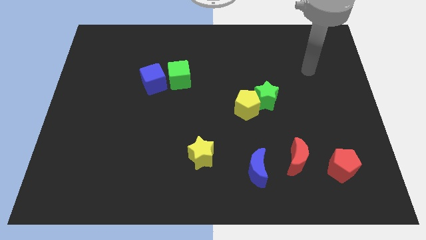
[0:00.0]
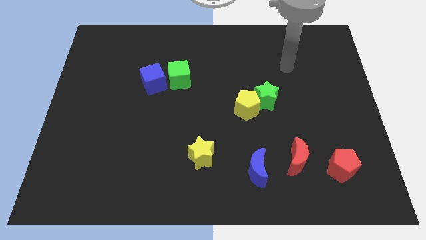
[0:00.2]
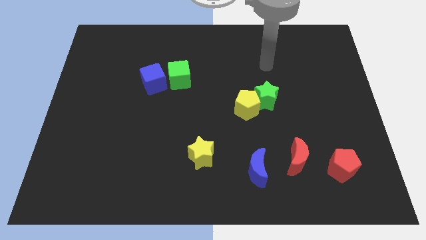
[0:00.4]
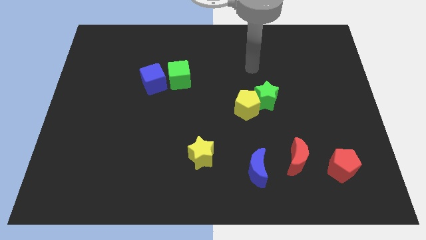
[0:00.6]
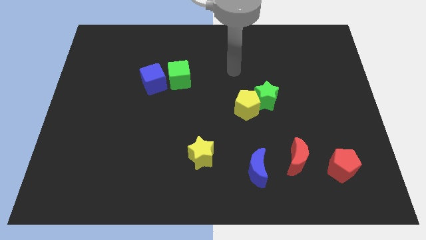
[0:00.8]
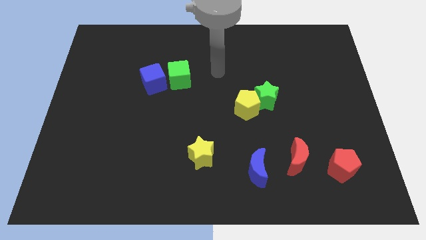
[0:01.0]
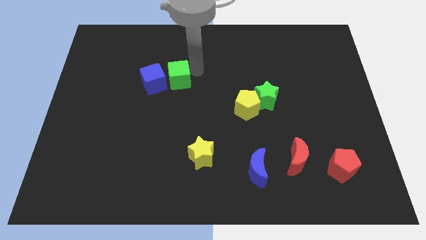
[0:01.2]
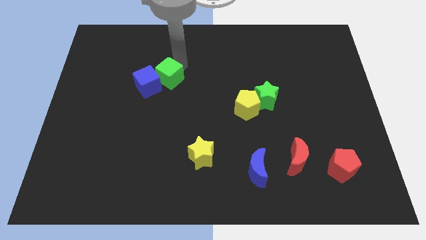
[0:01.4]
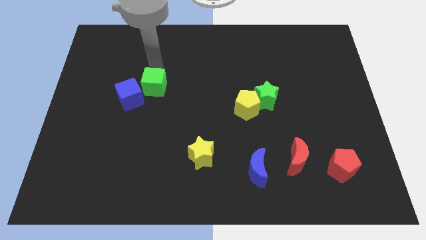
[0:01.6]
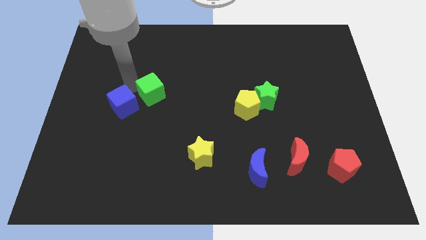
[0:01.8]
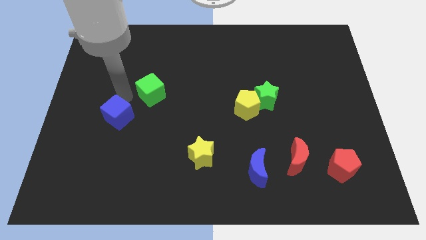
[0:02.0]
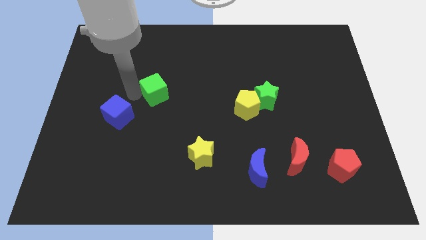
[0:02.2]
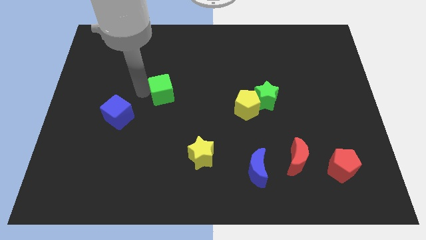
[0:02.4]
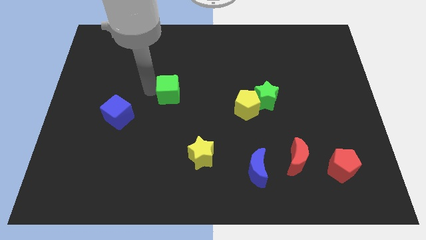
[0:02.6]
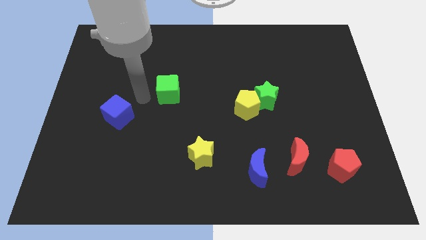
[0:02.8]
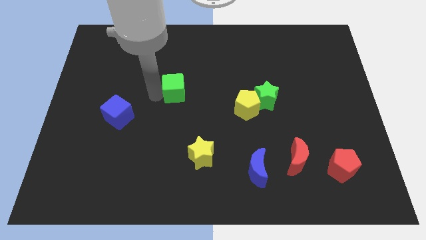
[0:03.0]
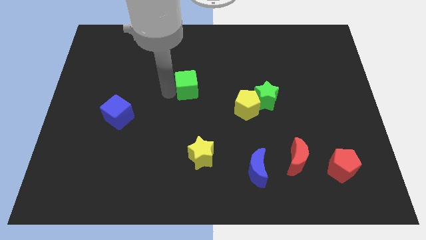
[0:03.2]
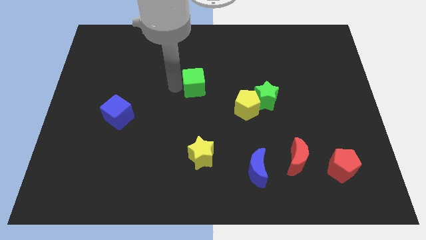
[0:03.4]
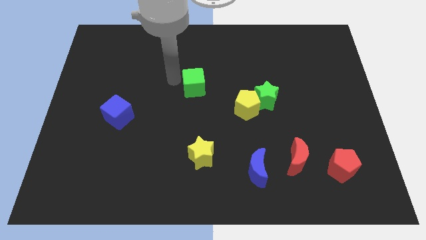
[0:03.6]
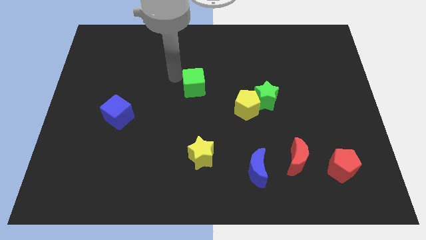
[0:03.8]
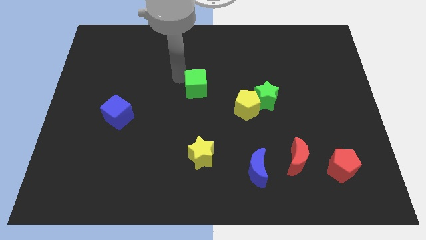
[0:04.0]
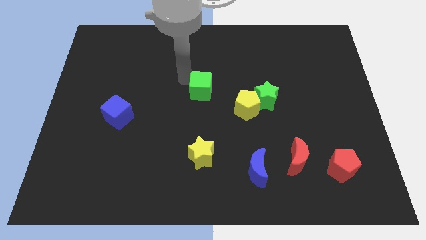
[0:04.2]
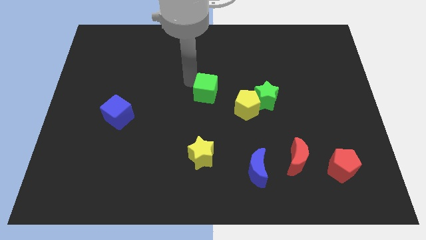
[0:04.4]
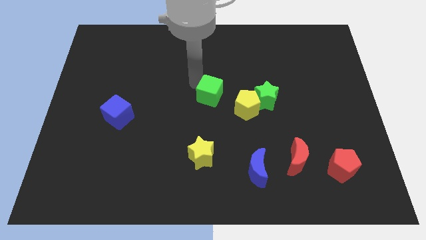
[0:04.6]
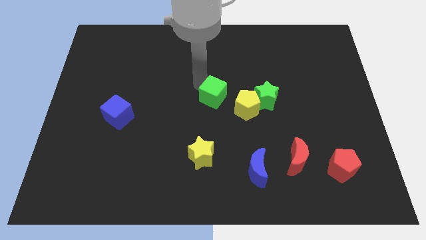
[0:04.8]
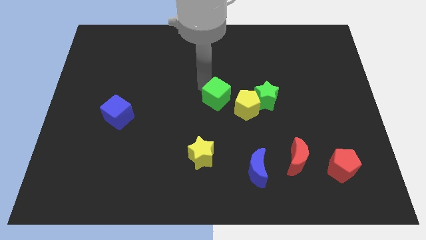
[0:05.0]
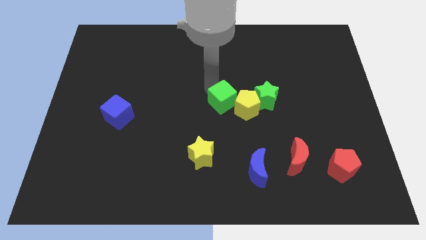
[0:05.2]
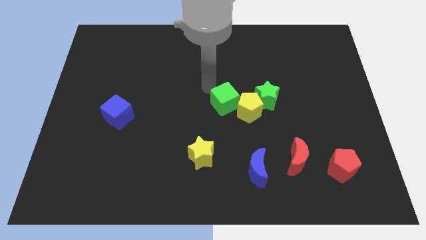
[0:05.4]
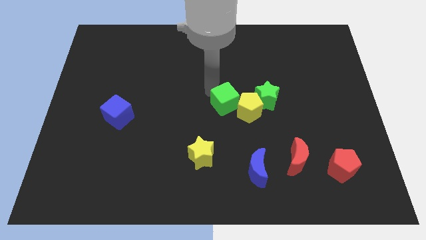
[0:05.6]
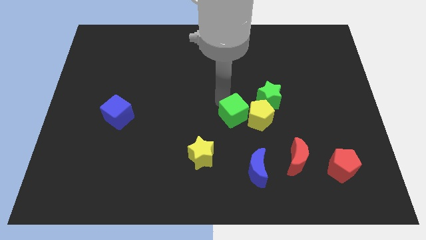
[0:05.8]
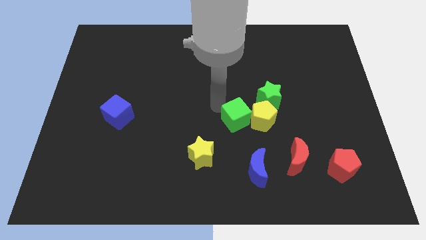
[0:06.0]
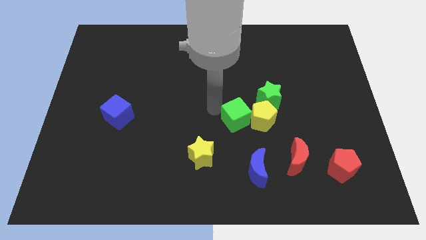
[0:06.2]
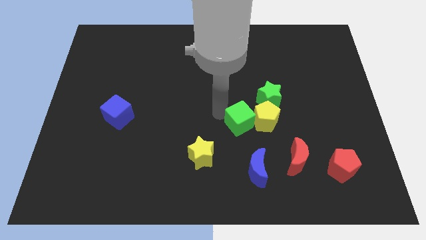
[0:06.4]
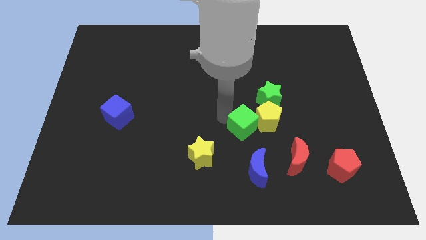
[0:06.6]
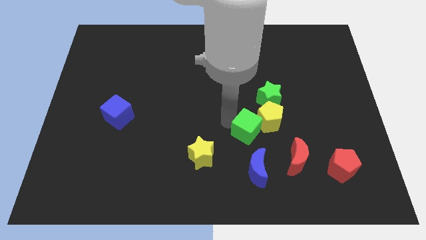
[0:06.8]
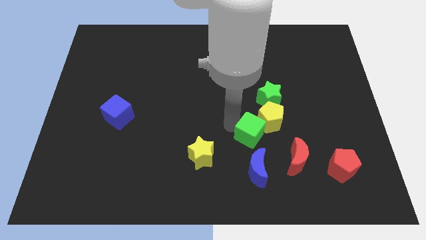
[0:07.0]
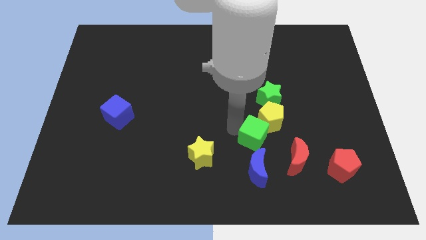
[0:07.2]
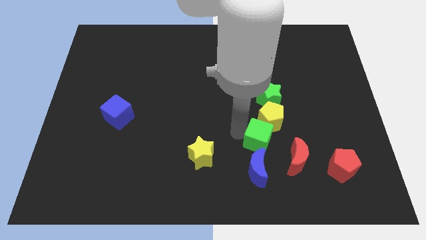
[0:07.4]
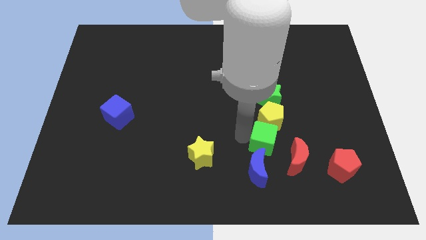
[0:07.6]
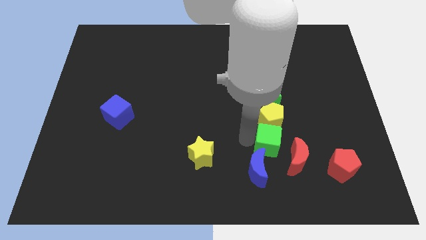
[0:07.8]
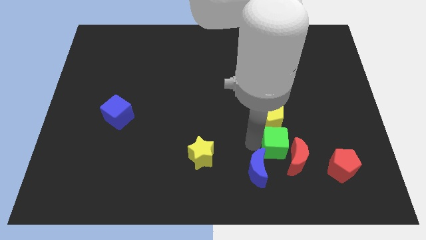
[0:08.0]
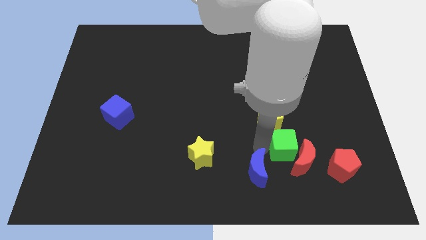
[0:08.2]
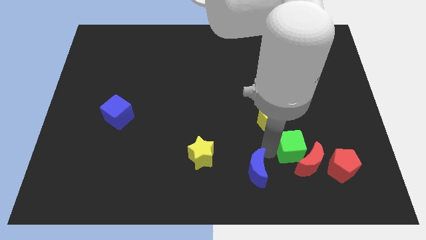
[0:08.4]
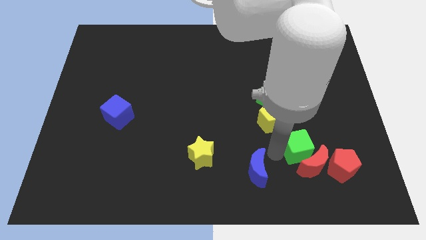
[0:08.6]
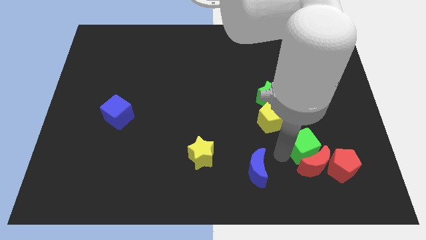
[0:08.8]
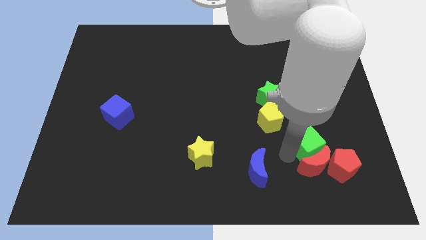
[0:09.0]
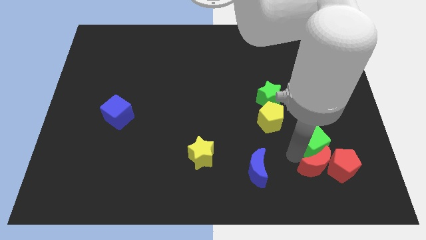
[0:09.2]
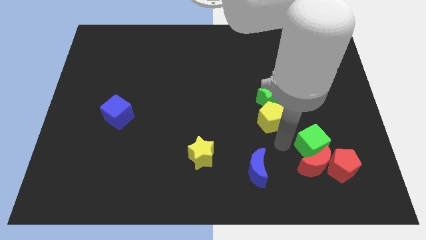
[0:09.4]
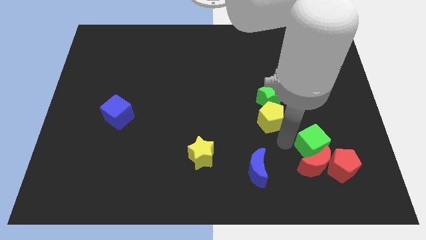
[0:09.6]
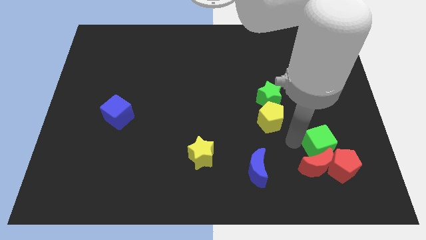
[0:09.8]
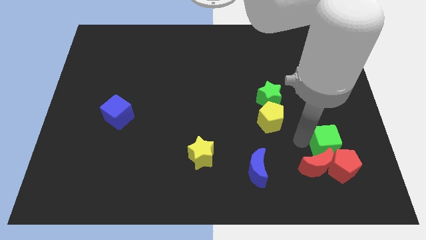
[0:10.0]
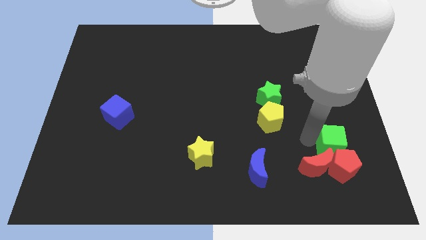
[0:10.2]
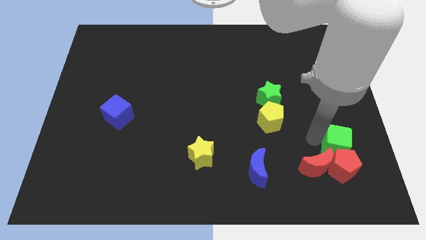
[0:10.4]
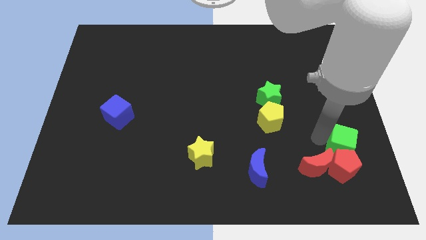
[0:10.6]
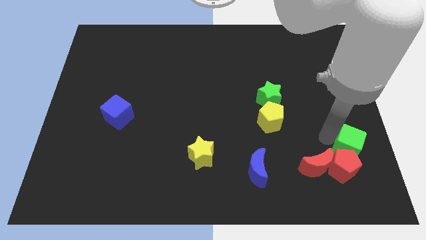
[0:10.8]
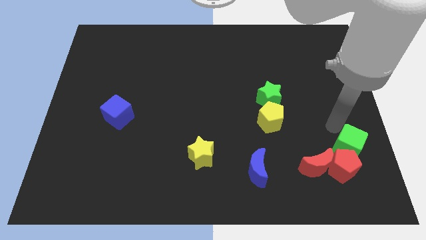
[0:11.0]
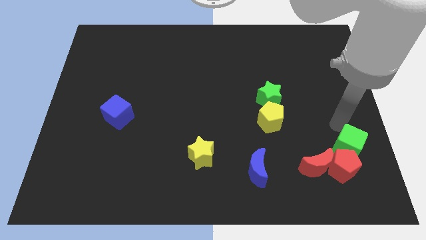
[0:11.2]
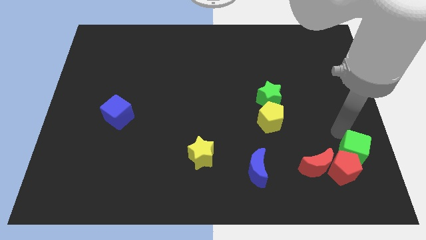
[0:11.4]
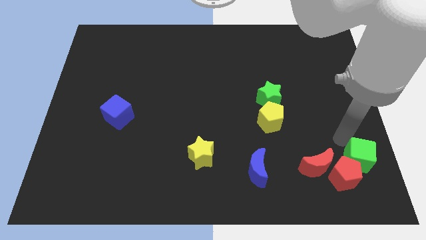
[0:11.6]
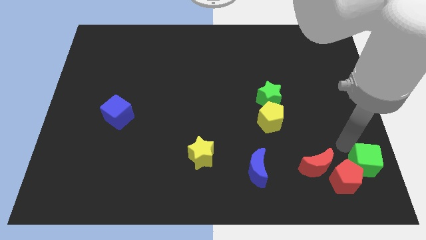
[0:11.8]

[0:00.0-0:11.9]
slide the green cube to the bottom right of the board

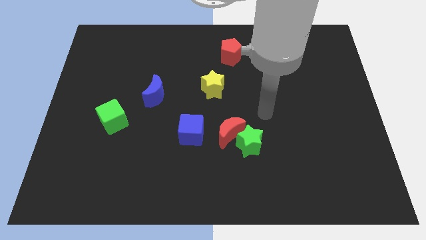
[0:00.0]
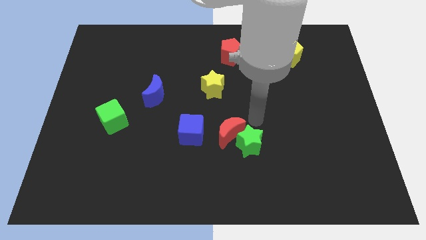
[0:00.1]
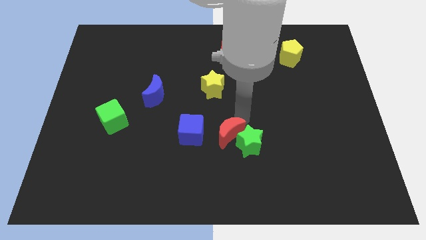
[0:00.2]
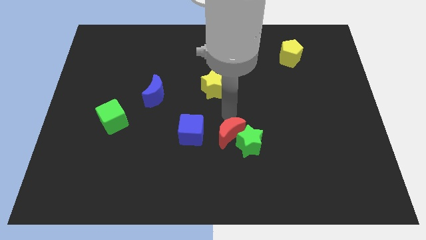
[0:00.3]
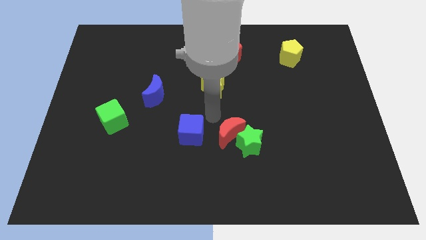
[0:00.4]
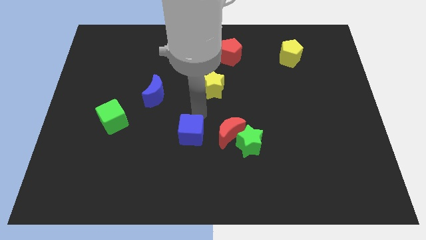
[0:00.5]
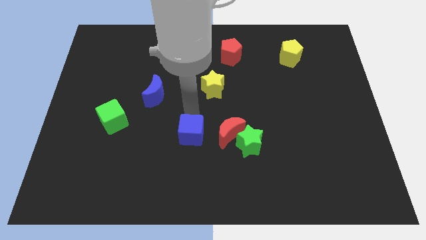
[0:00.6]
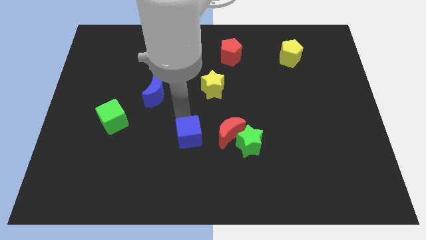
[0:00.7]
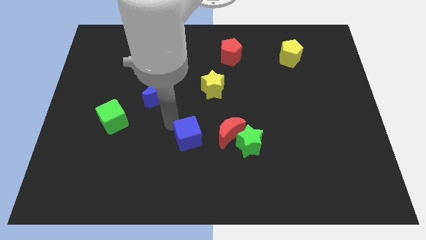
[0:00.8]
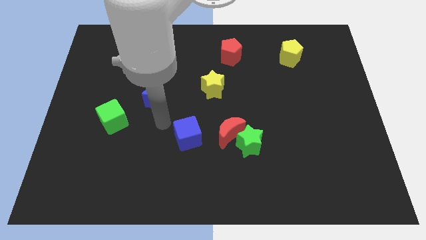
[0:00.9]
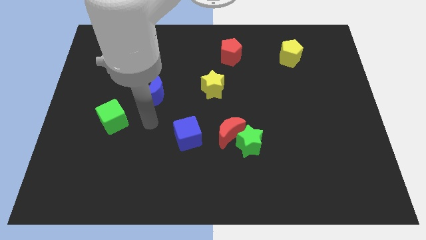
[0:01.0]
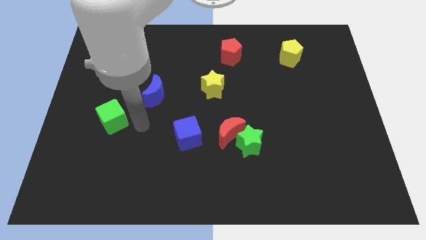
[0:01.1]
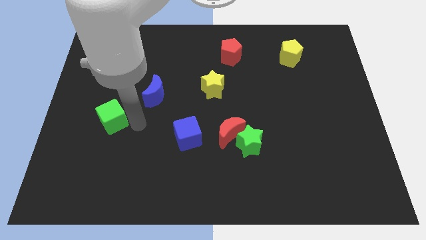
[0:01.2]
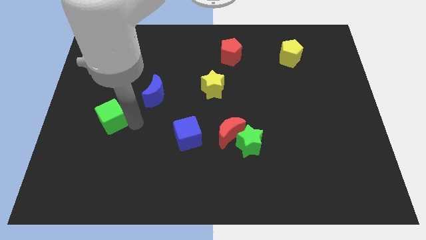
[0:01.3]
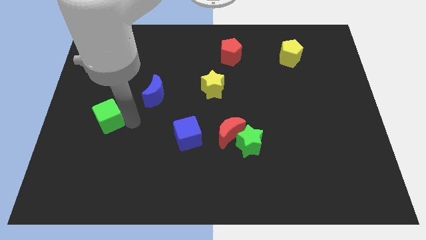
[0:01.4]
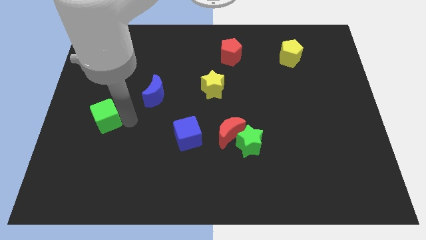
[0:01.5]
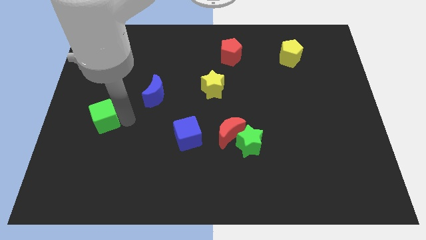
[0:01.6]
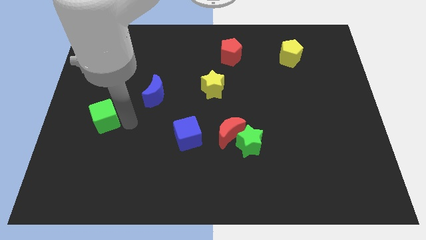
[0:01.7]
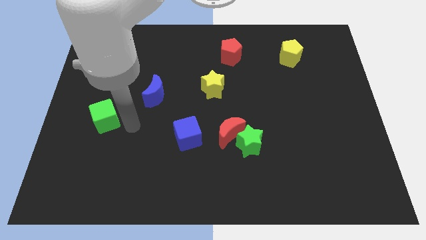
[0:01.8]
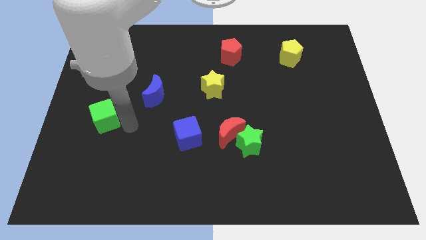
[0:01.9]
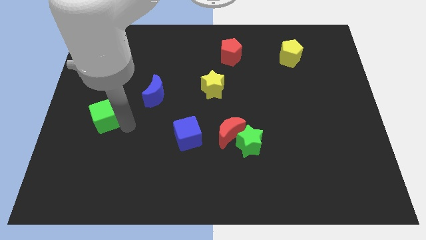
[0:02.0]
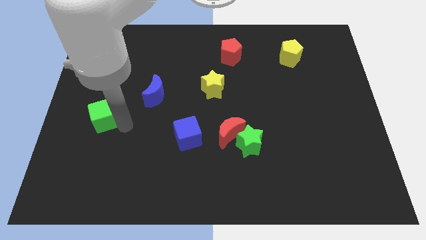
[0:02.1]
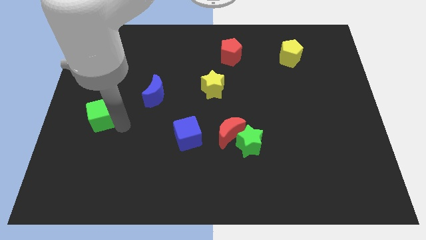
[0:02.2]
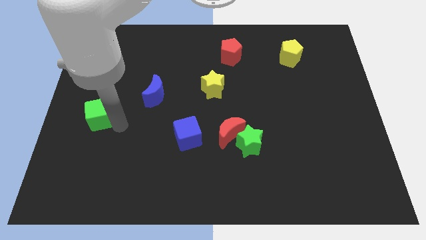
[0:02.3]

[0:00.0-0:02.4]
push the green cube to the left side of the board
